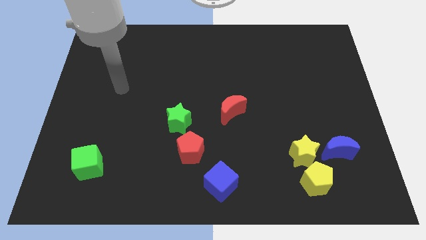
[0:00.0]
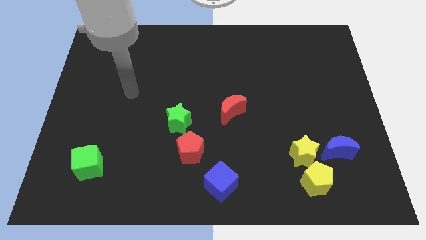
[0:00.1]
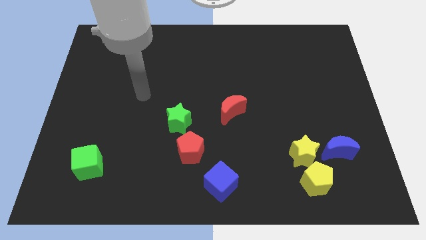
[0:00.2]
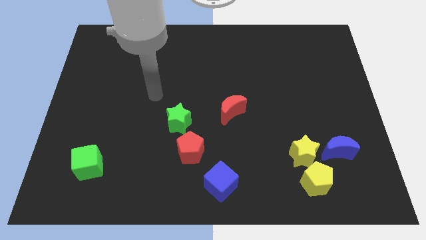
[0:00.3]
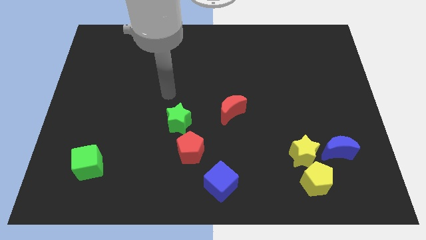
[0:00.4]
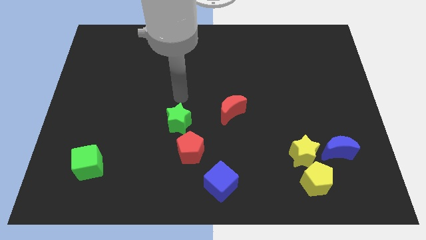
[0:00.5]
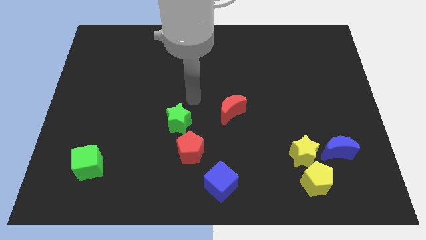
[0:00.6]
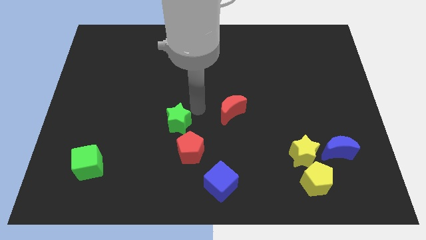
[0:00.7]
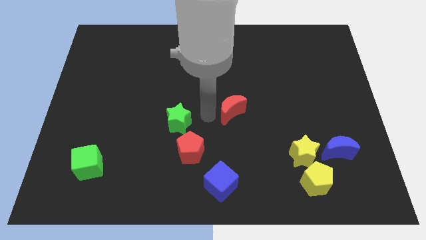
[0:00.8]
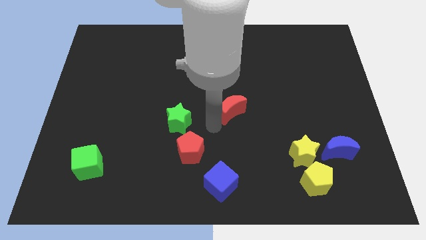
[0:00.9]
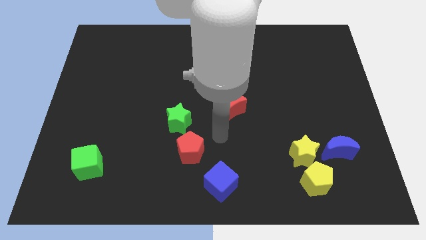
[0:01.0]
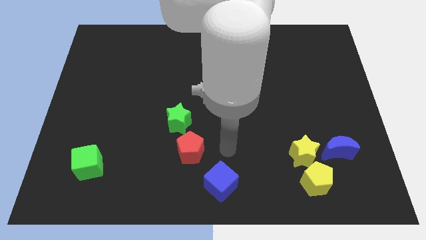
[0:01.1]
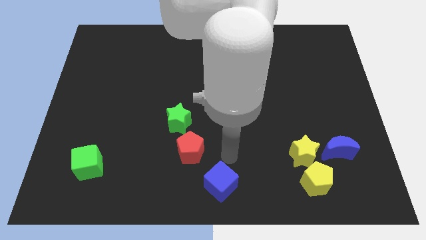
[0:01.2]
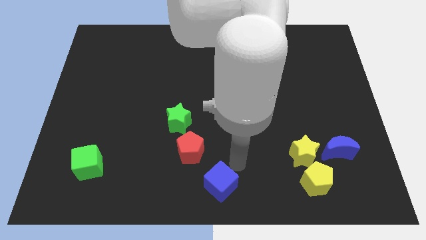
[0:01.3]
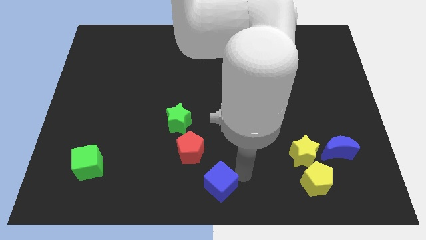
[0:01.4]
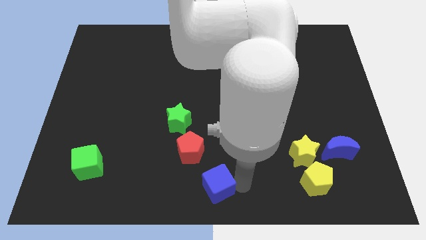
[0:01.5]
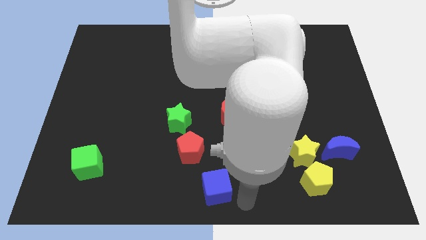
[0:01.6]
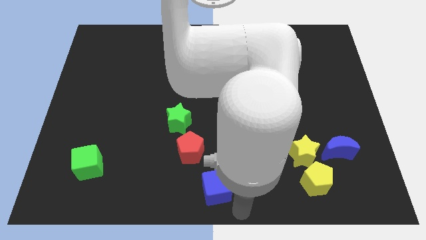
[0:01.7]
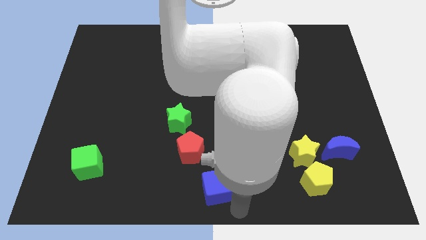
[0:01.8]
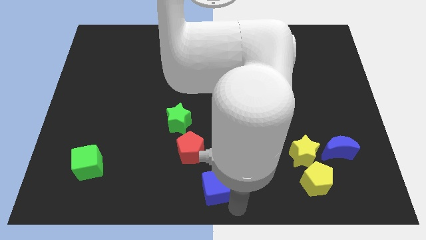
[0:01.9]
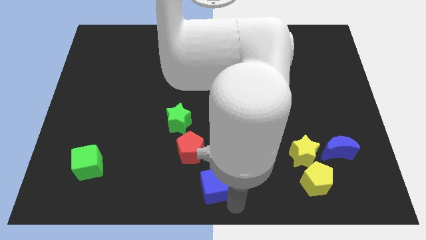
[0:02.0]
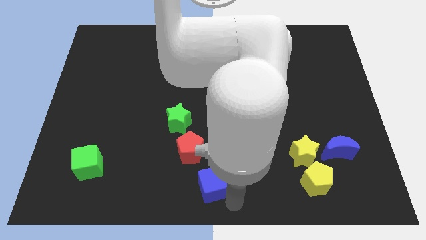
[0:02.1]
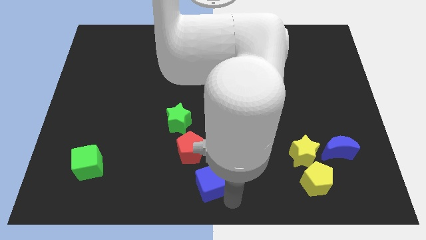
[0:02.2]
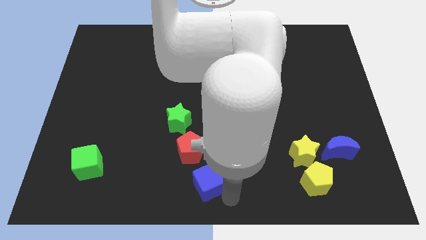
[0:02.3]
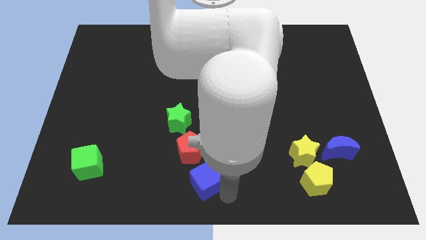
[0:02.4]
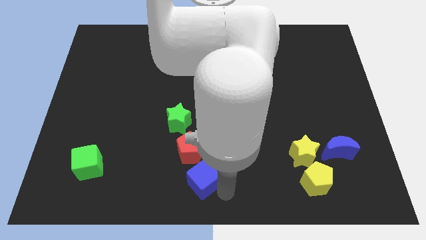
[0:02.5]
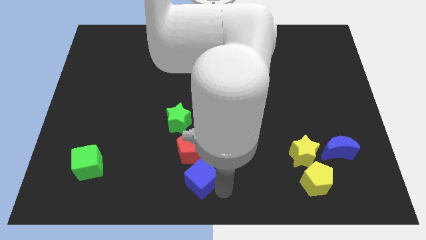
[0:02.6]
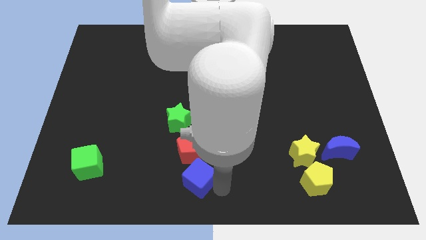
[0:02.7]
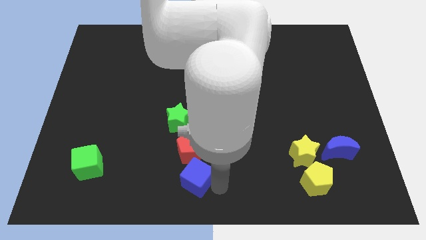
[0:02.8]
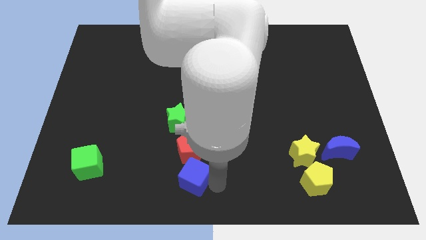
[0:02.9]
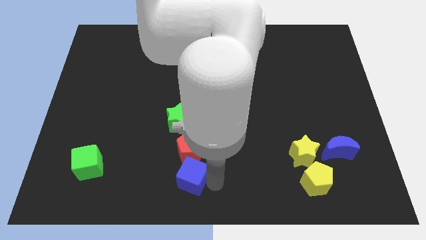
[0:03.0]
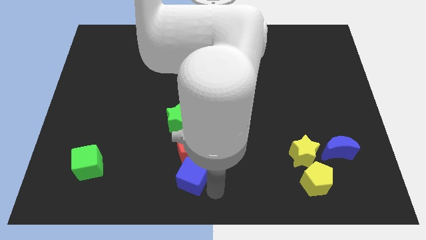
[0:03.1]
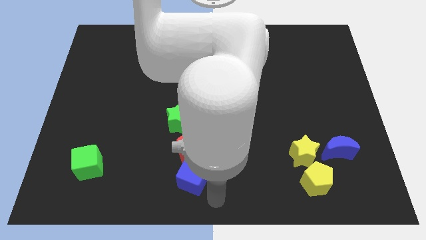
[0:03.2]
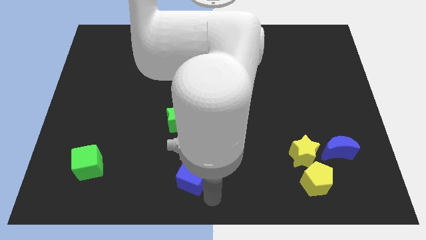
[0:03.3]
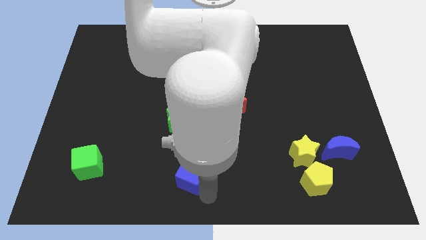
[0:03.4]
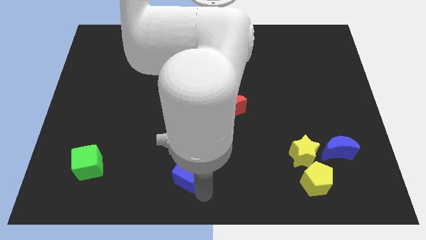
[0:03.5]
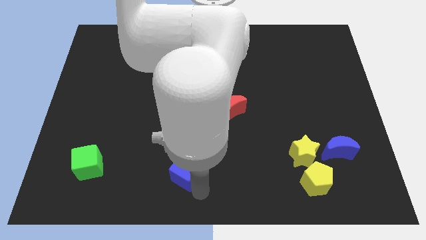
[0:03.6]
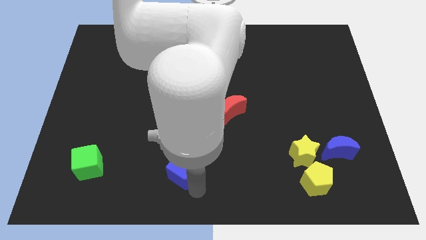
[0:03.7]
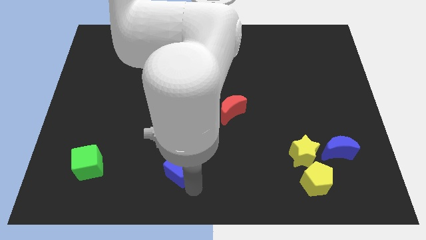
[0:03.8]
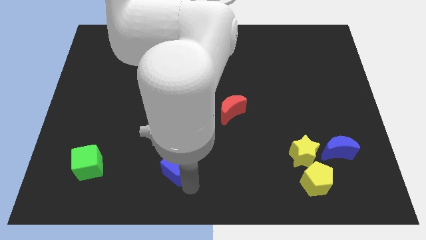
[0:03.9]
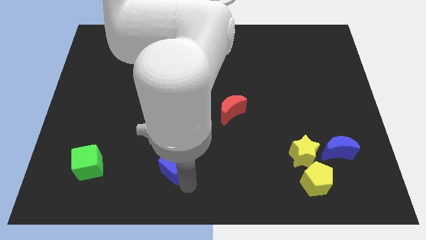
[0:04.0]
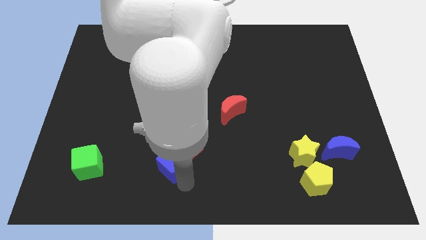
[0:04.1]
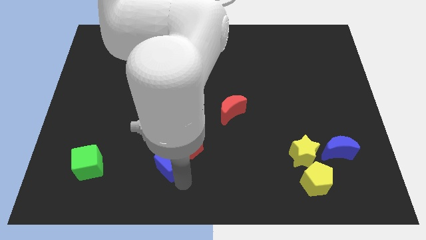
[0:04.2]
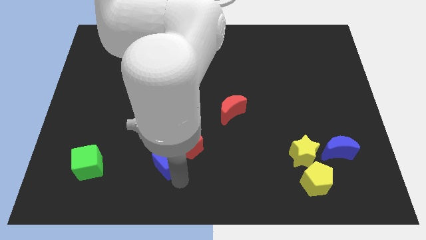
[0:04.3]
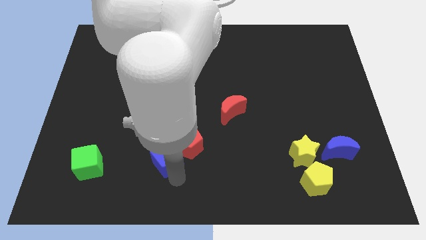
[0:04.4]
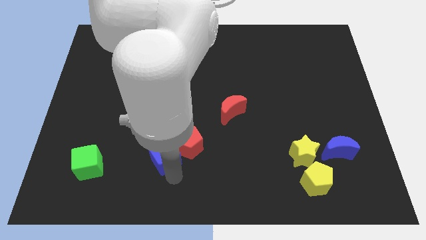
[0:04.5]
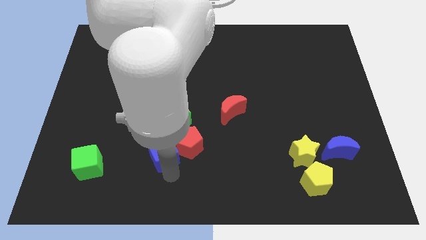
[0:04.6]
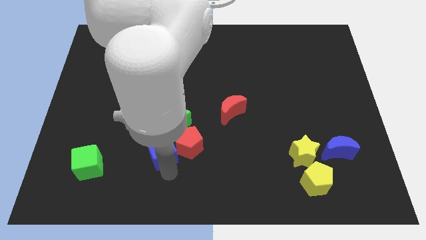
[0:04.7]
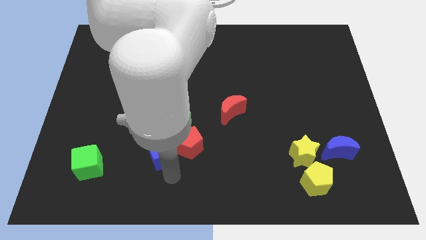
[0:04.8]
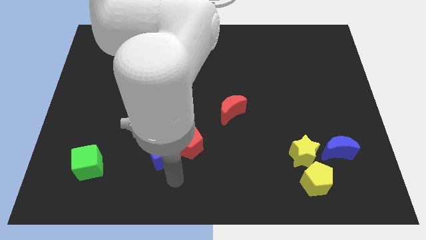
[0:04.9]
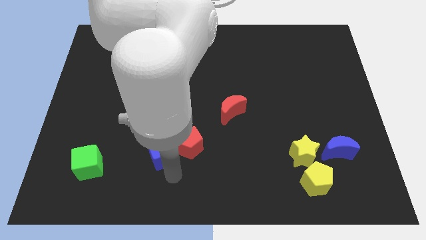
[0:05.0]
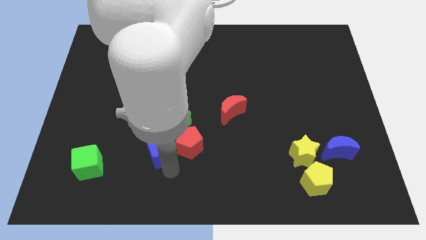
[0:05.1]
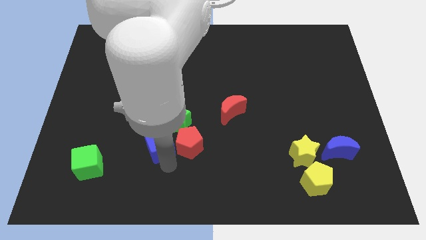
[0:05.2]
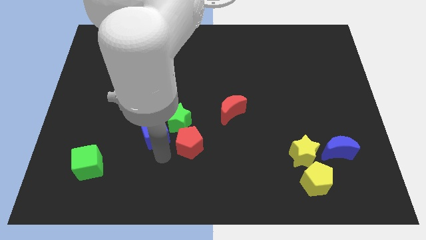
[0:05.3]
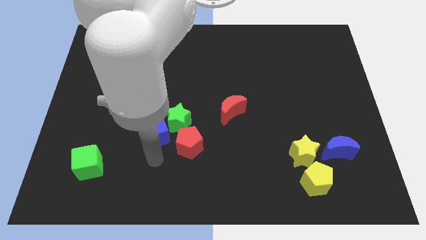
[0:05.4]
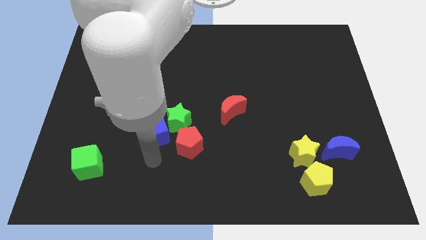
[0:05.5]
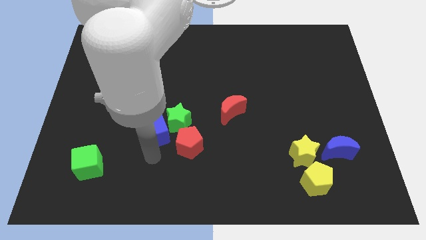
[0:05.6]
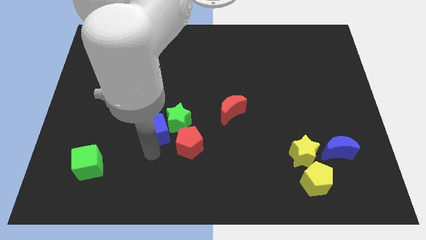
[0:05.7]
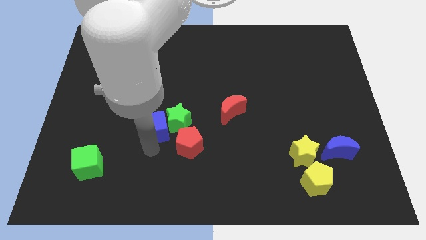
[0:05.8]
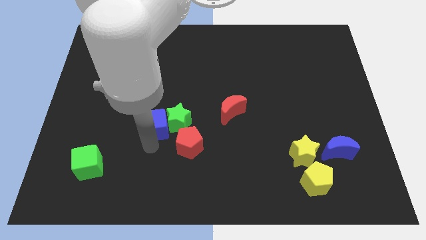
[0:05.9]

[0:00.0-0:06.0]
slide the blue cube to the top left side of the green star

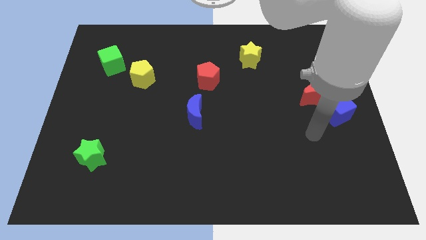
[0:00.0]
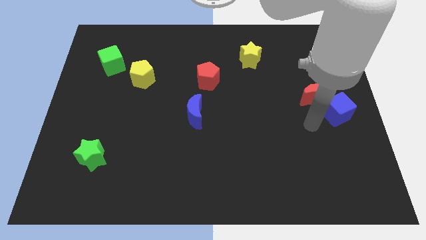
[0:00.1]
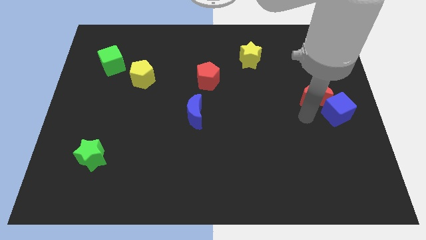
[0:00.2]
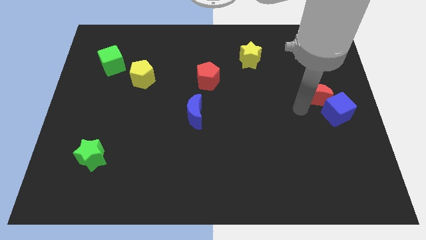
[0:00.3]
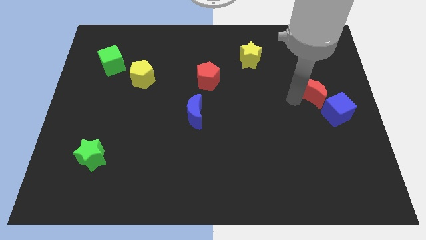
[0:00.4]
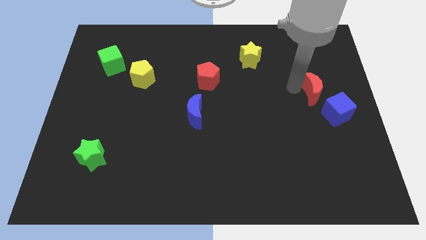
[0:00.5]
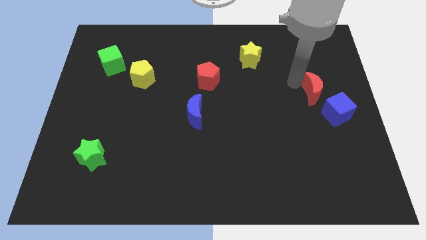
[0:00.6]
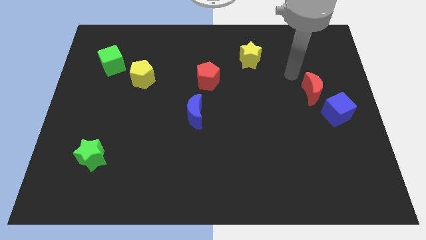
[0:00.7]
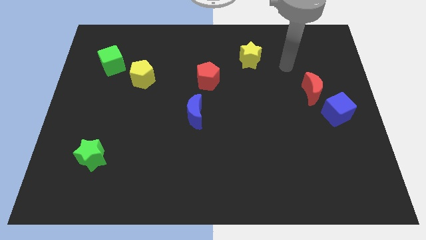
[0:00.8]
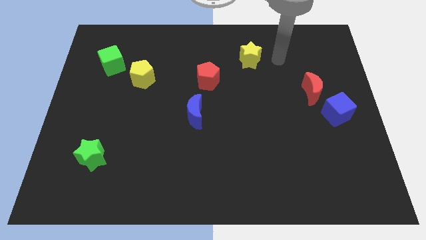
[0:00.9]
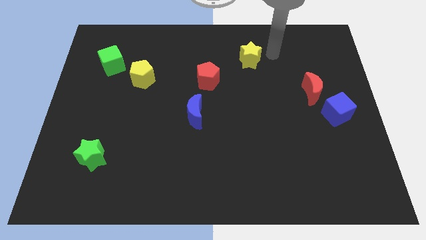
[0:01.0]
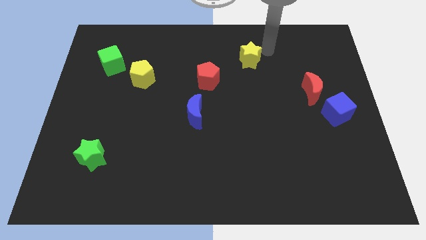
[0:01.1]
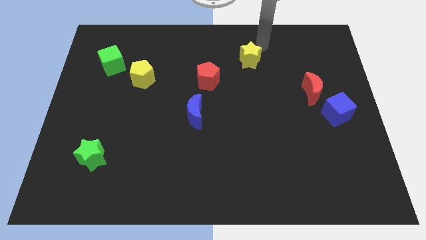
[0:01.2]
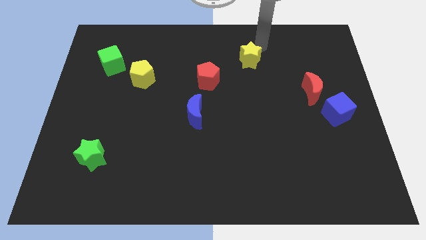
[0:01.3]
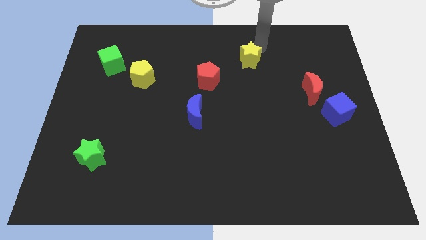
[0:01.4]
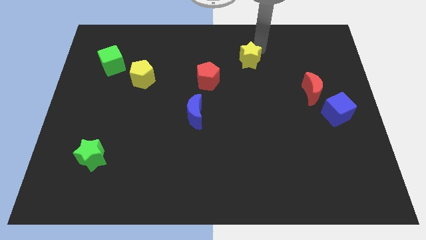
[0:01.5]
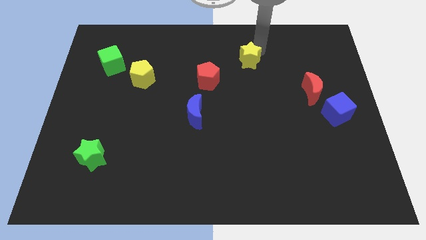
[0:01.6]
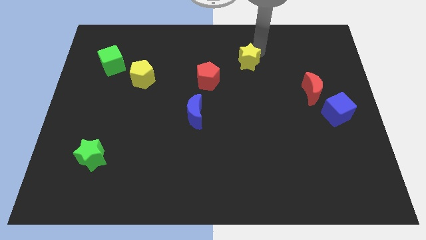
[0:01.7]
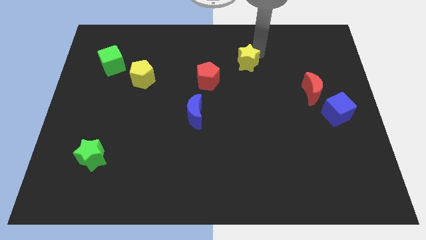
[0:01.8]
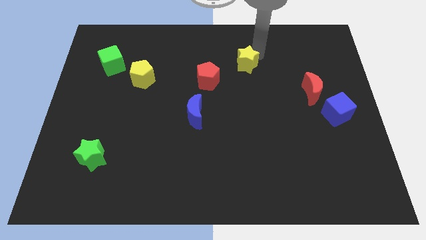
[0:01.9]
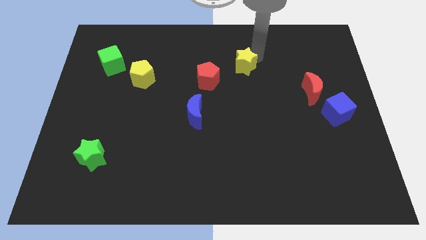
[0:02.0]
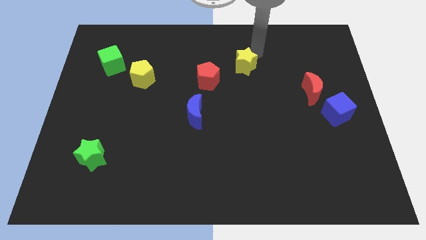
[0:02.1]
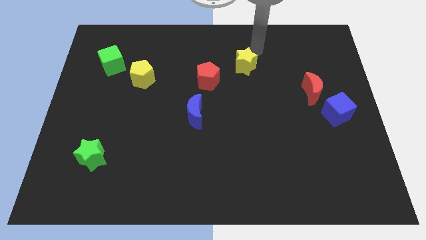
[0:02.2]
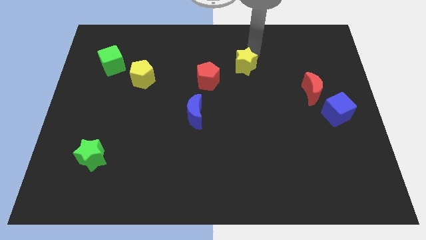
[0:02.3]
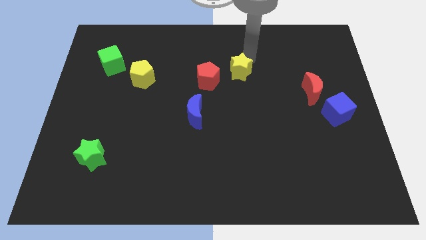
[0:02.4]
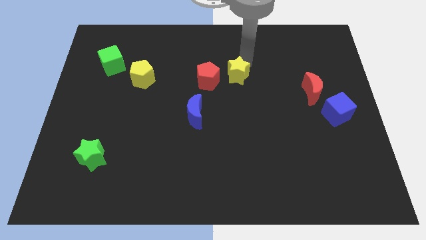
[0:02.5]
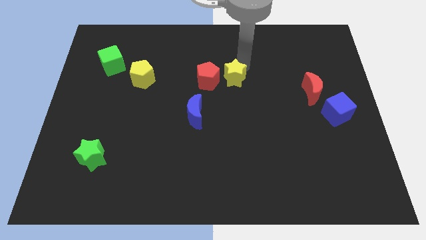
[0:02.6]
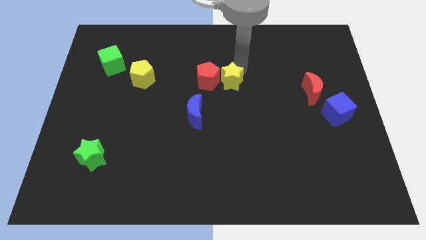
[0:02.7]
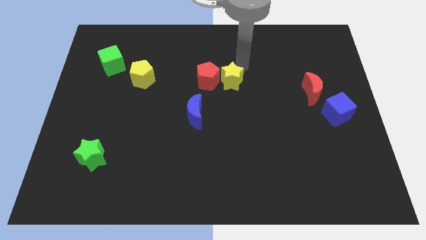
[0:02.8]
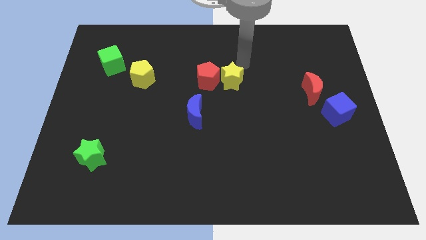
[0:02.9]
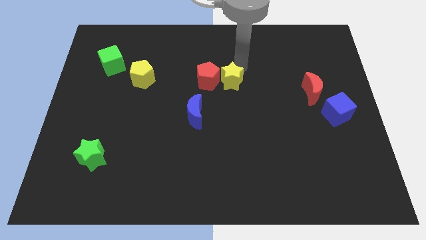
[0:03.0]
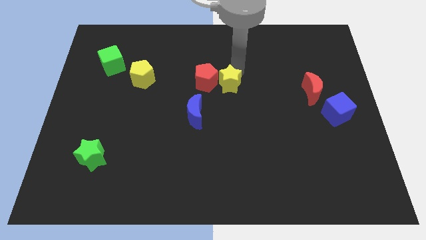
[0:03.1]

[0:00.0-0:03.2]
put the yellow star to the top right of the blue moon
